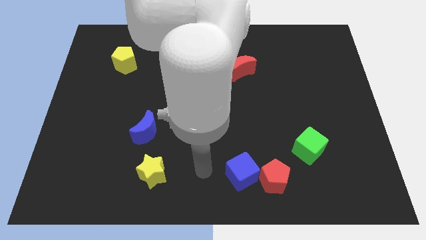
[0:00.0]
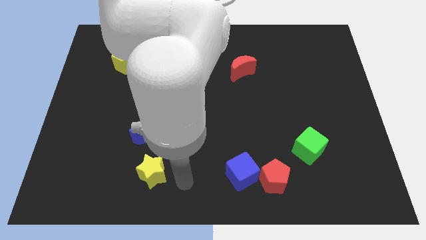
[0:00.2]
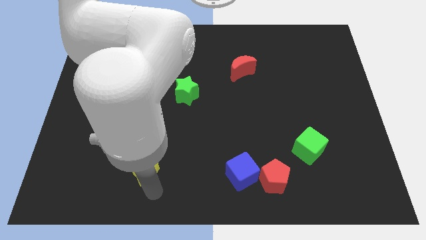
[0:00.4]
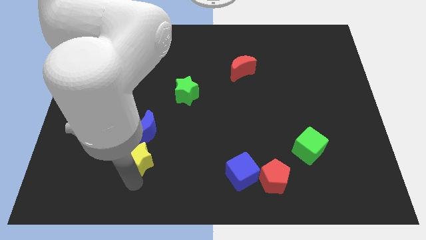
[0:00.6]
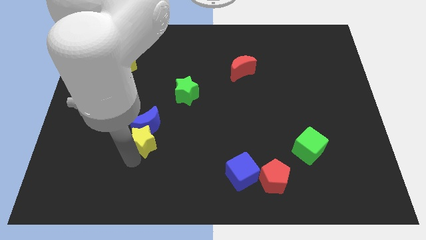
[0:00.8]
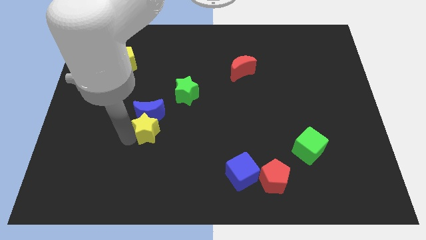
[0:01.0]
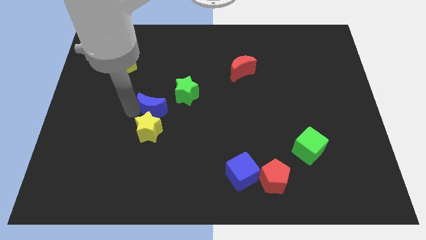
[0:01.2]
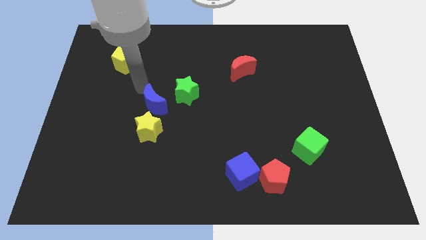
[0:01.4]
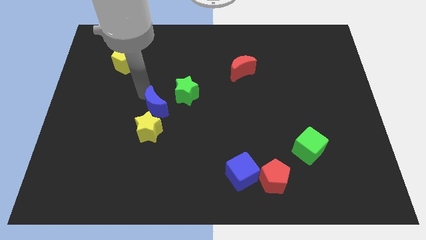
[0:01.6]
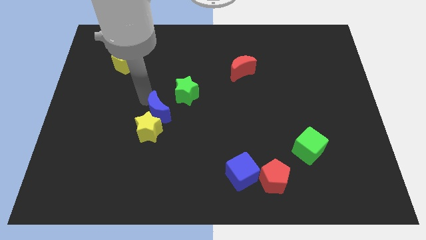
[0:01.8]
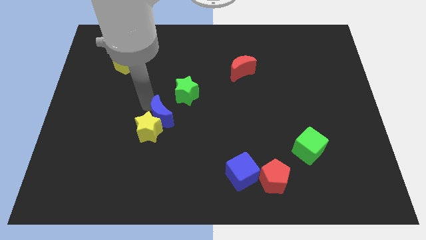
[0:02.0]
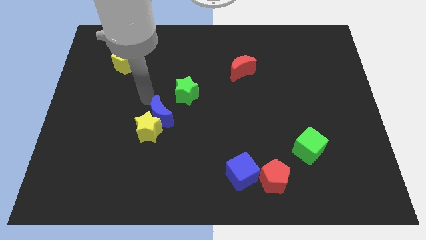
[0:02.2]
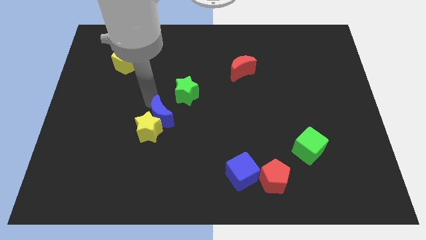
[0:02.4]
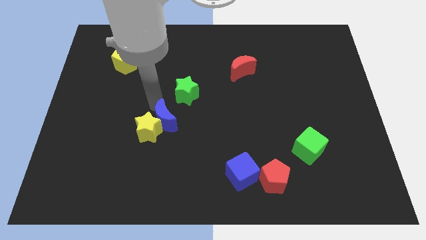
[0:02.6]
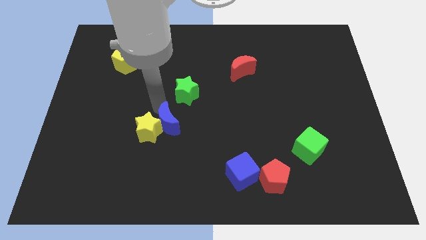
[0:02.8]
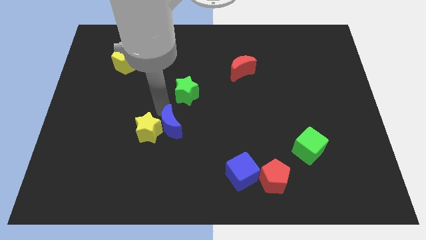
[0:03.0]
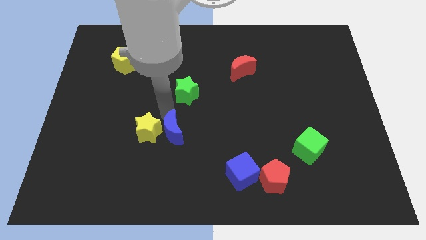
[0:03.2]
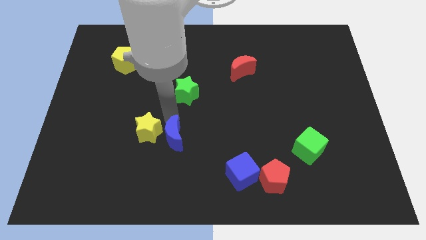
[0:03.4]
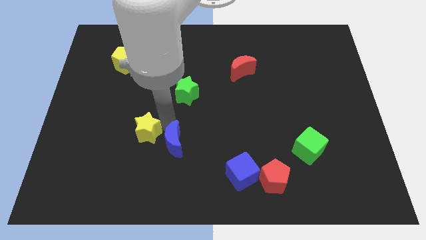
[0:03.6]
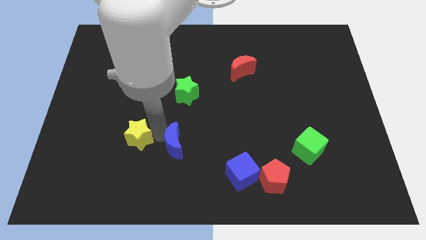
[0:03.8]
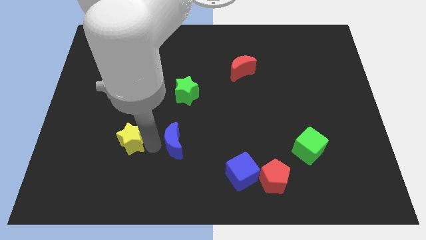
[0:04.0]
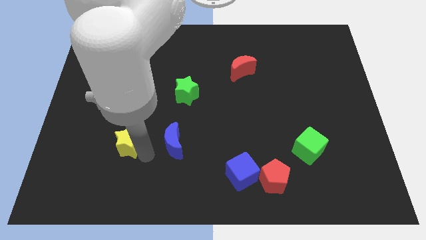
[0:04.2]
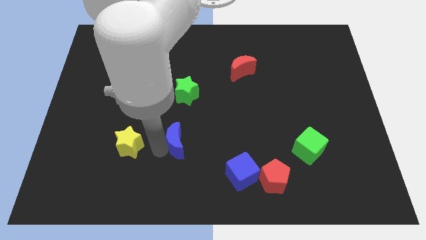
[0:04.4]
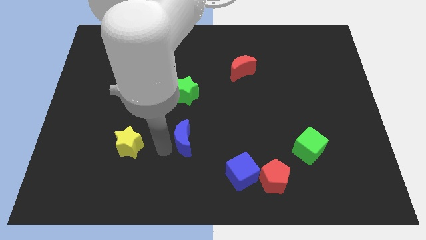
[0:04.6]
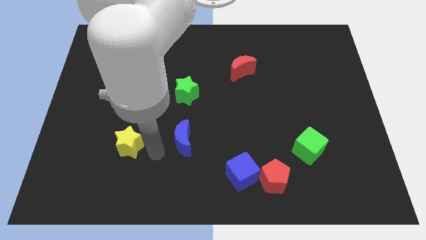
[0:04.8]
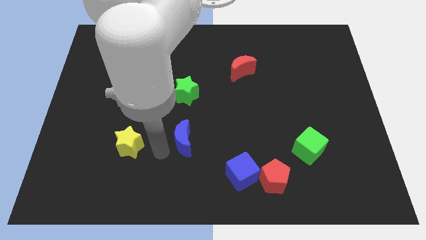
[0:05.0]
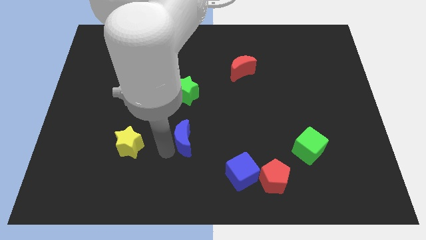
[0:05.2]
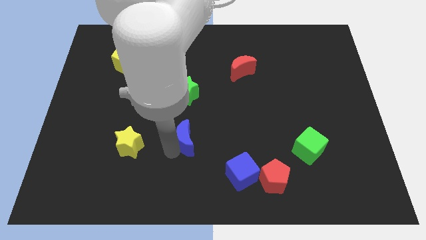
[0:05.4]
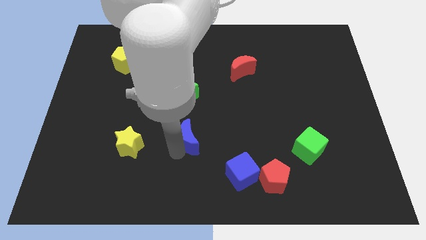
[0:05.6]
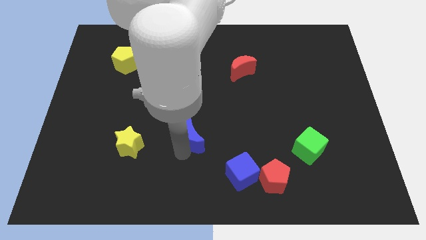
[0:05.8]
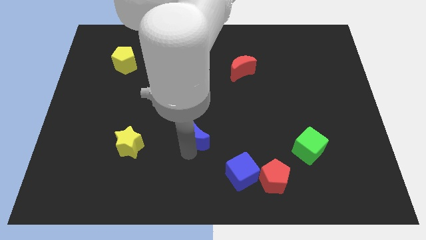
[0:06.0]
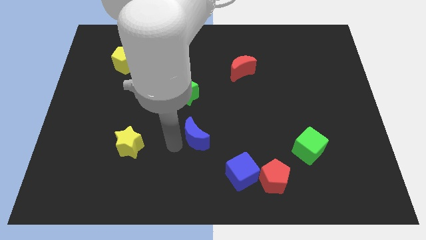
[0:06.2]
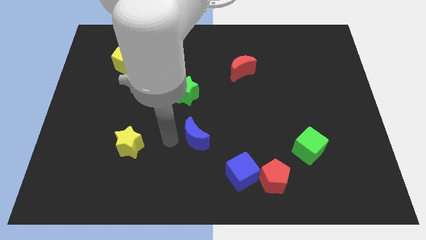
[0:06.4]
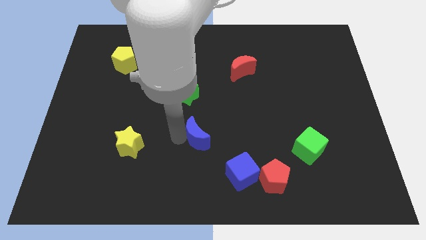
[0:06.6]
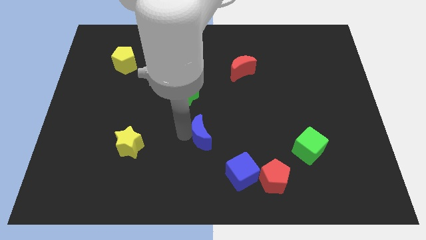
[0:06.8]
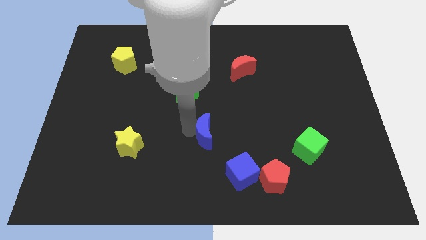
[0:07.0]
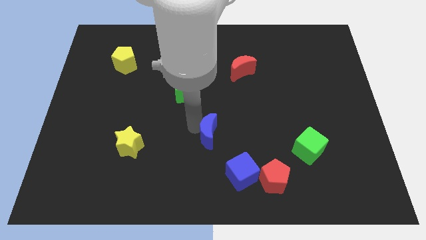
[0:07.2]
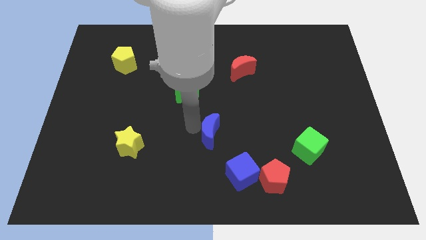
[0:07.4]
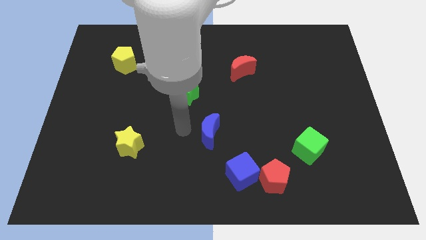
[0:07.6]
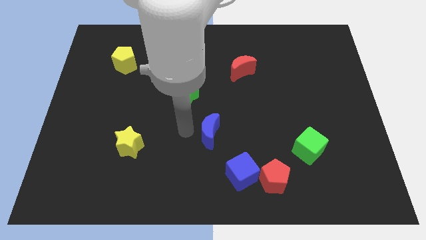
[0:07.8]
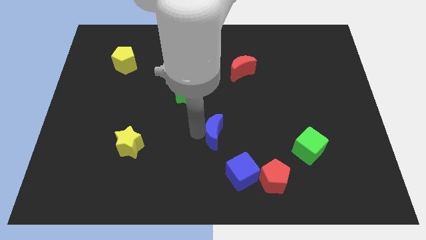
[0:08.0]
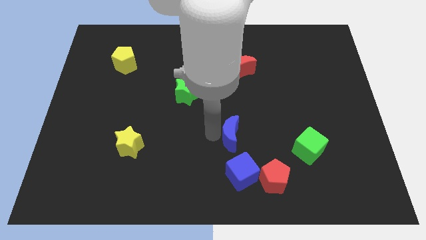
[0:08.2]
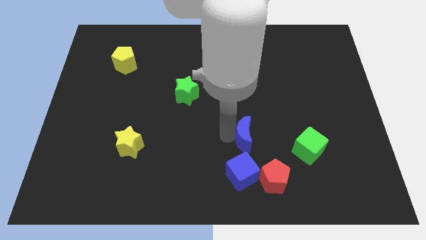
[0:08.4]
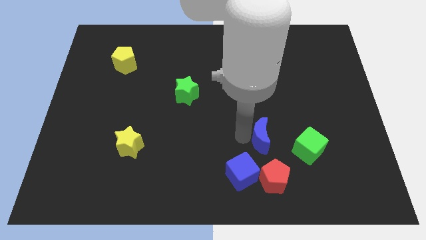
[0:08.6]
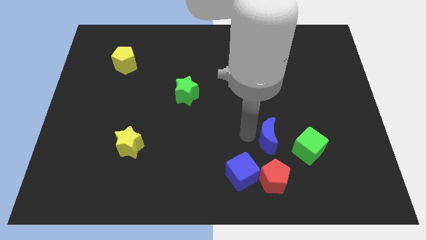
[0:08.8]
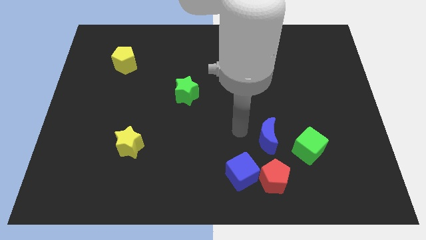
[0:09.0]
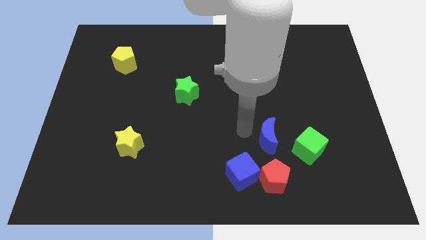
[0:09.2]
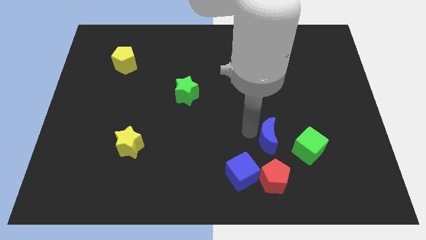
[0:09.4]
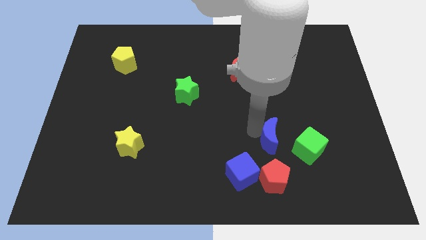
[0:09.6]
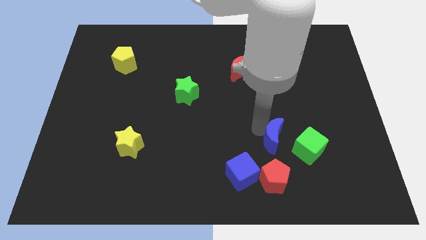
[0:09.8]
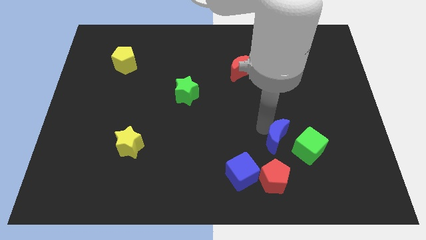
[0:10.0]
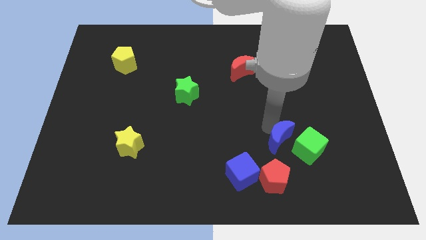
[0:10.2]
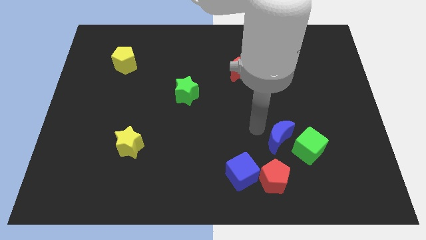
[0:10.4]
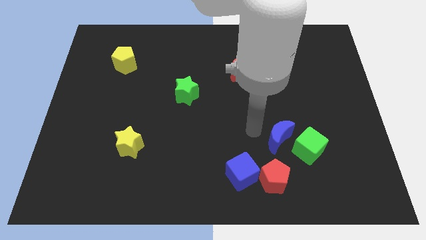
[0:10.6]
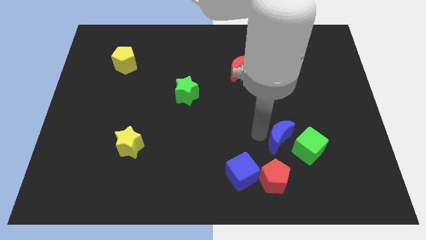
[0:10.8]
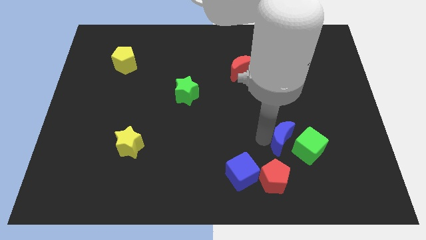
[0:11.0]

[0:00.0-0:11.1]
move the blue moon to the green cube

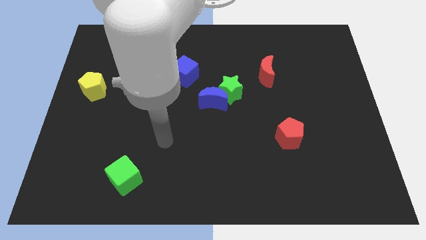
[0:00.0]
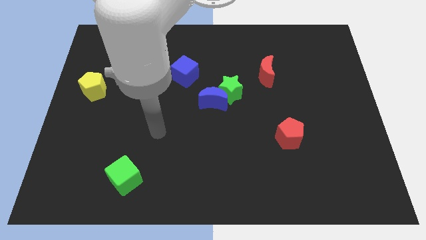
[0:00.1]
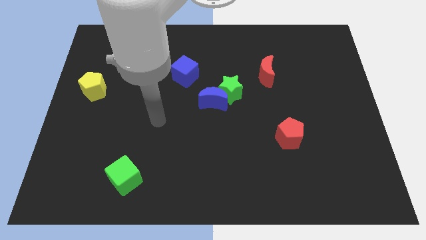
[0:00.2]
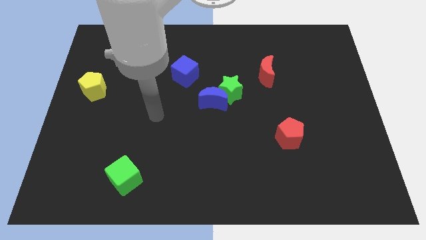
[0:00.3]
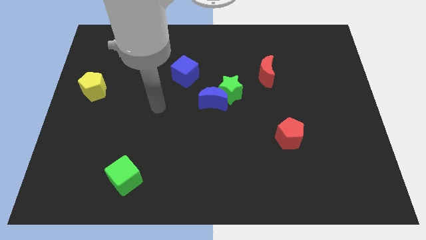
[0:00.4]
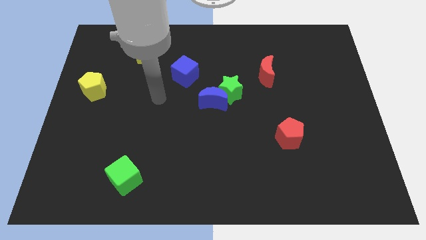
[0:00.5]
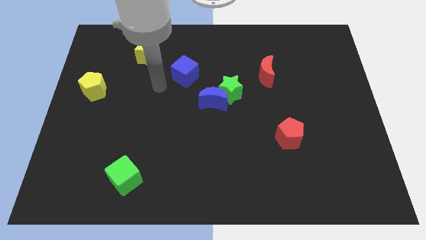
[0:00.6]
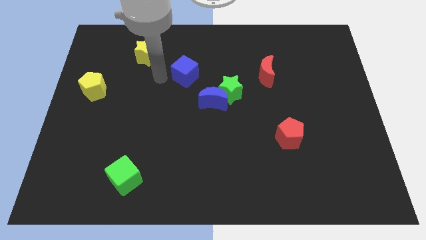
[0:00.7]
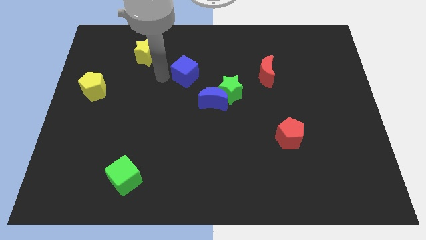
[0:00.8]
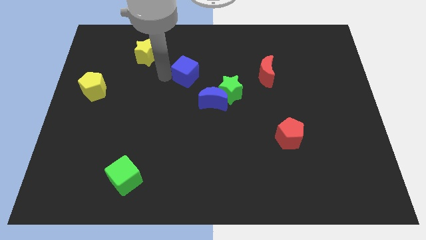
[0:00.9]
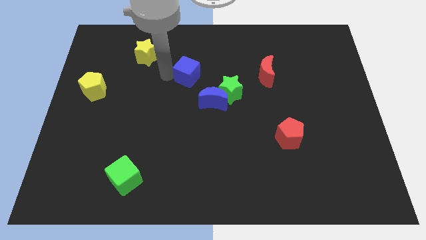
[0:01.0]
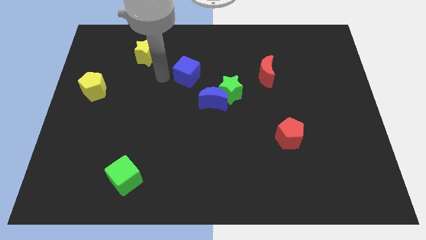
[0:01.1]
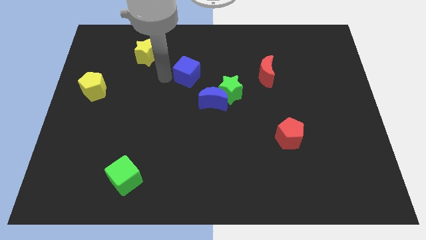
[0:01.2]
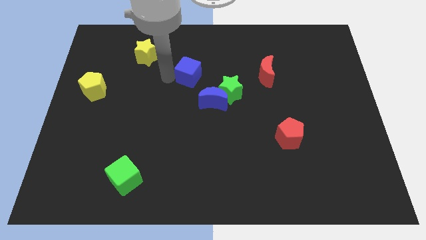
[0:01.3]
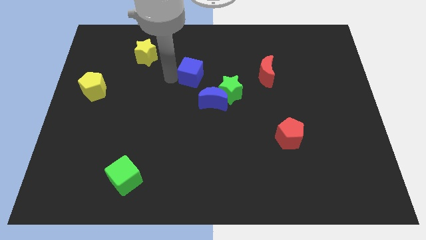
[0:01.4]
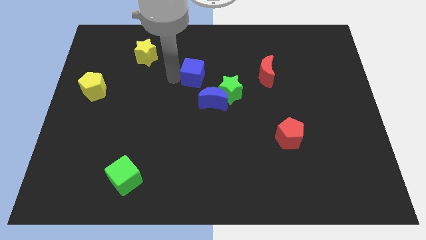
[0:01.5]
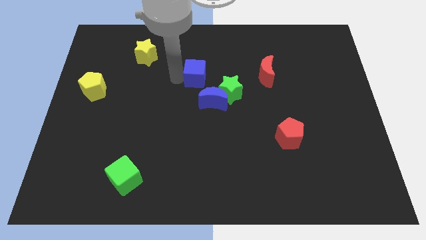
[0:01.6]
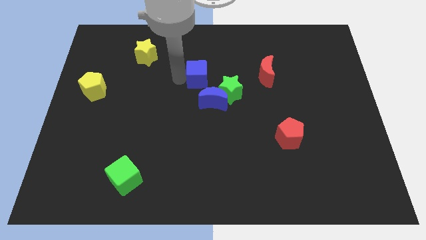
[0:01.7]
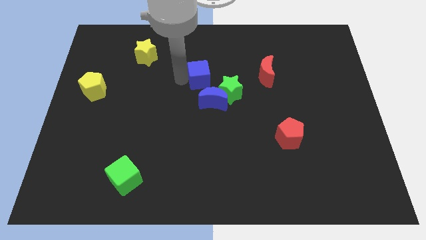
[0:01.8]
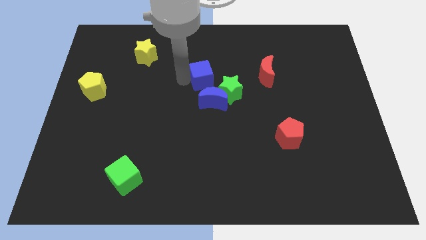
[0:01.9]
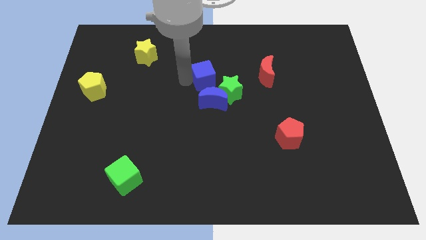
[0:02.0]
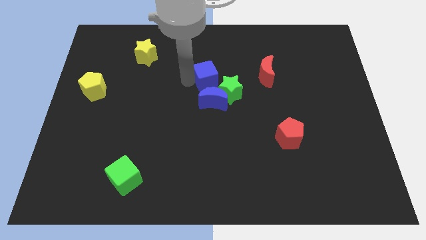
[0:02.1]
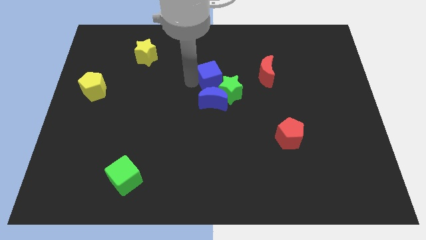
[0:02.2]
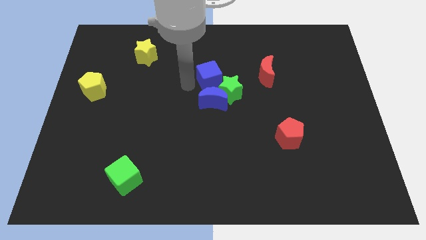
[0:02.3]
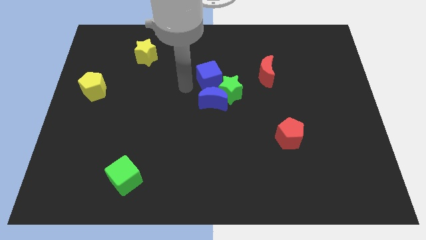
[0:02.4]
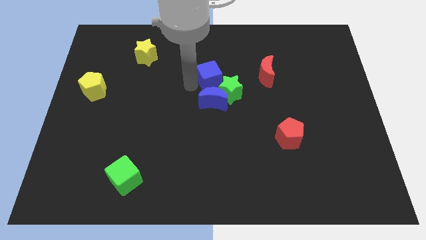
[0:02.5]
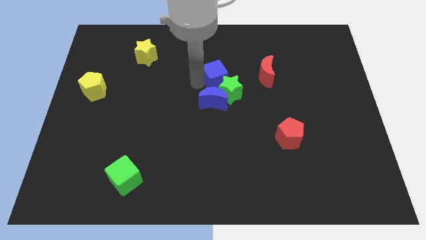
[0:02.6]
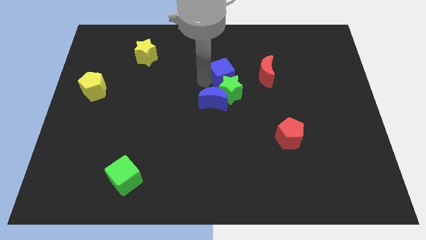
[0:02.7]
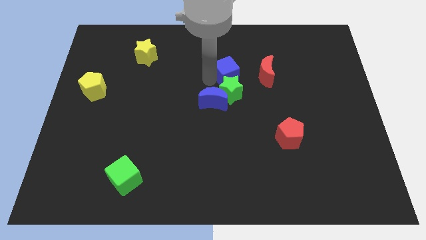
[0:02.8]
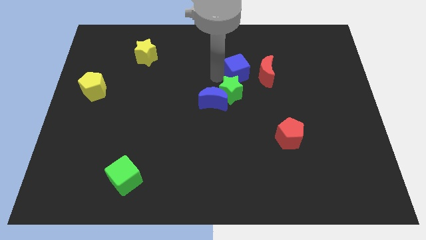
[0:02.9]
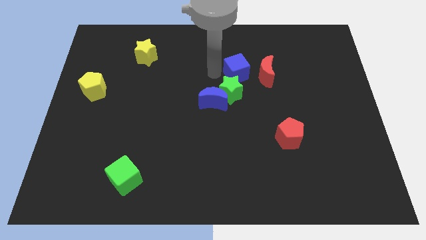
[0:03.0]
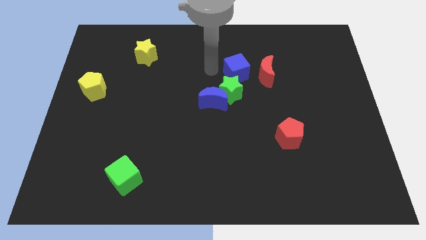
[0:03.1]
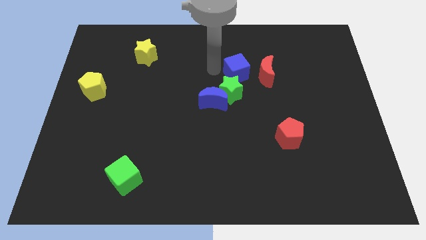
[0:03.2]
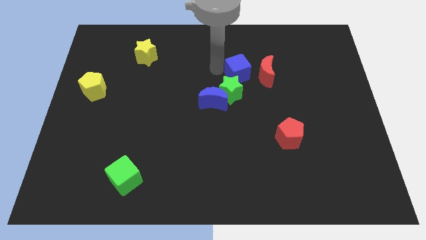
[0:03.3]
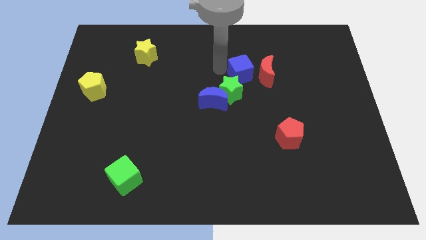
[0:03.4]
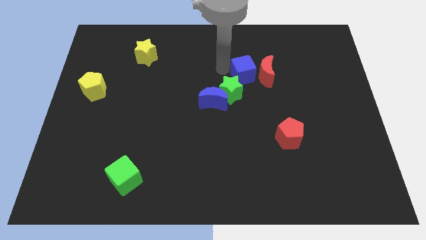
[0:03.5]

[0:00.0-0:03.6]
move the blue cube towards the red moon
